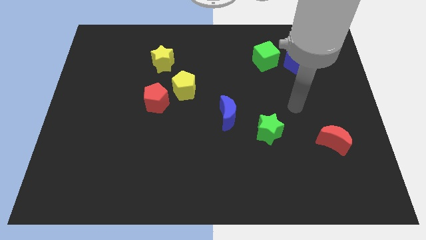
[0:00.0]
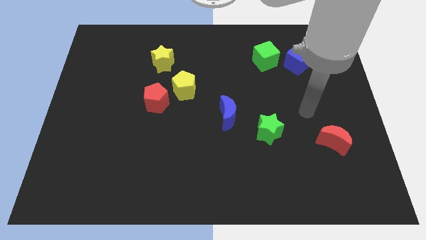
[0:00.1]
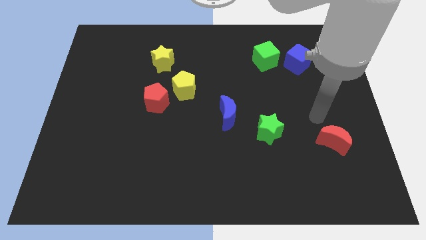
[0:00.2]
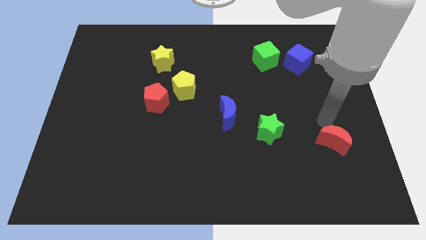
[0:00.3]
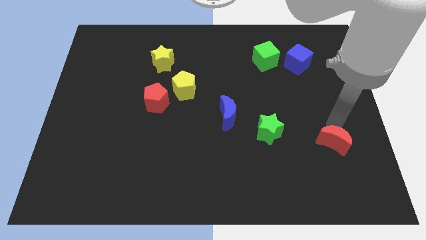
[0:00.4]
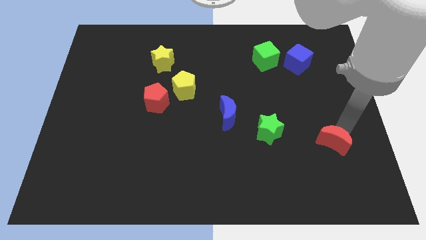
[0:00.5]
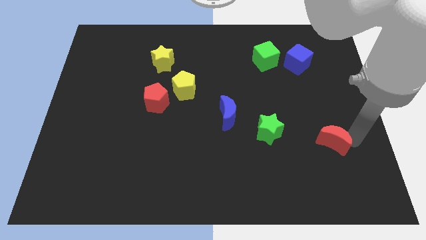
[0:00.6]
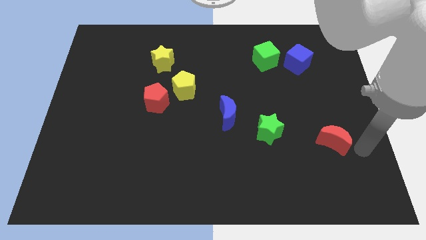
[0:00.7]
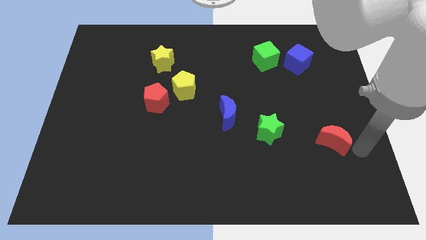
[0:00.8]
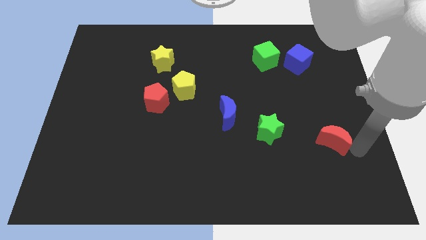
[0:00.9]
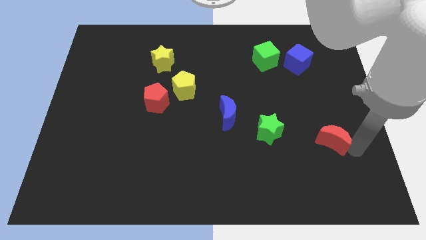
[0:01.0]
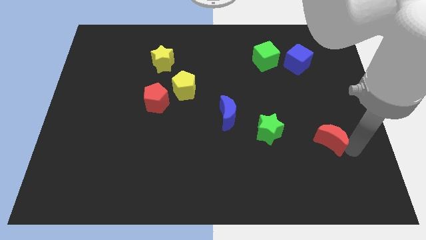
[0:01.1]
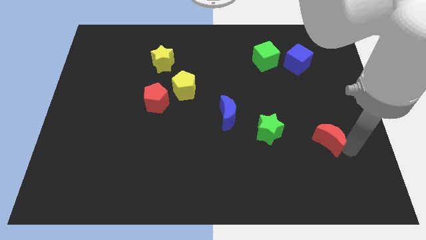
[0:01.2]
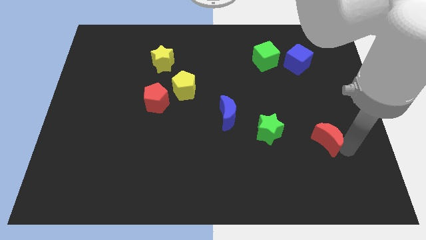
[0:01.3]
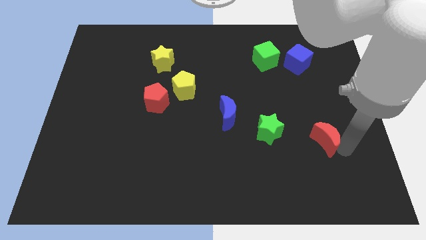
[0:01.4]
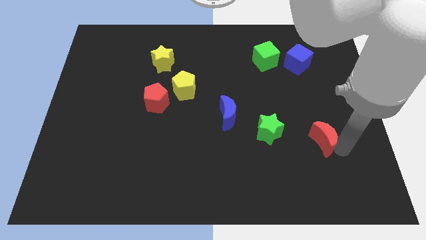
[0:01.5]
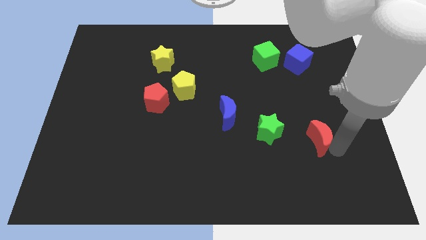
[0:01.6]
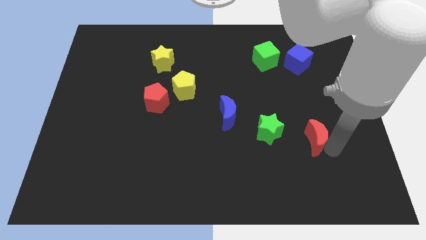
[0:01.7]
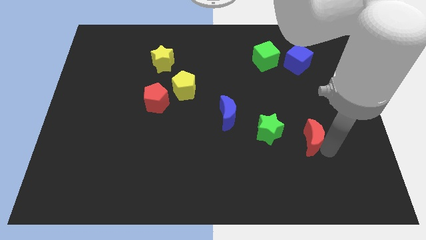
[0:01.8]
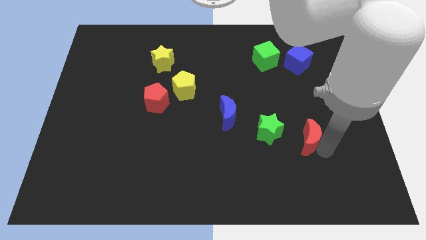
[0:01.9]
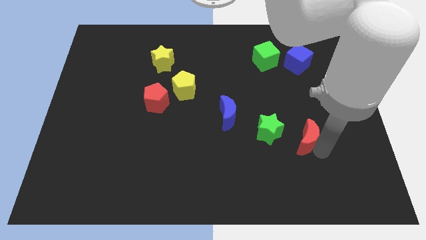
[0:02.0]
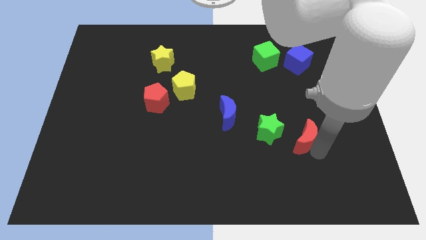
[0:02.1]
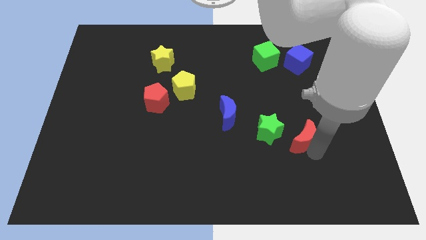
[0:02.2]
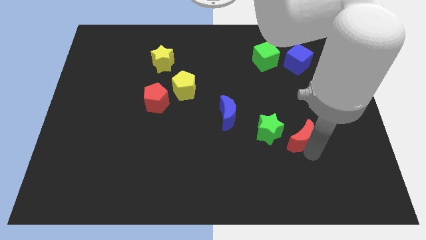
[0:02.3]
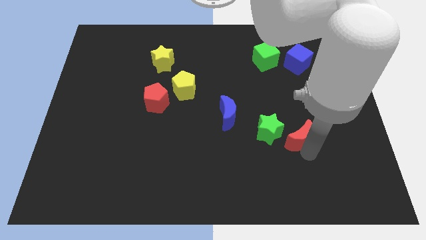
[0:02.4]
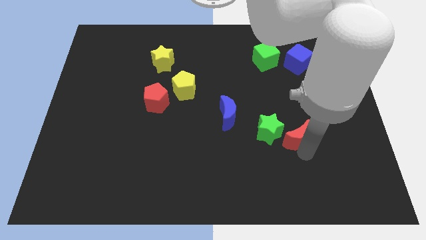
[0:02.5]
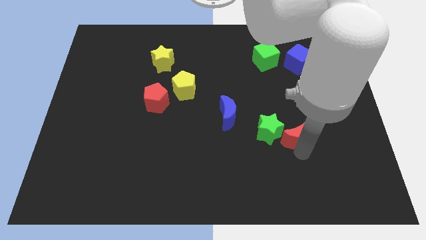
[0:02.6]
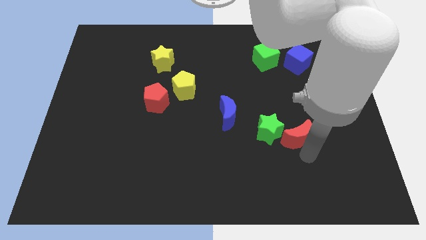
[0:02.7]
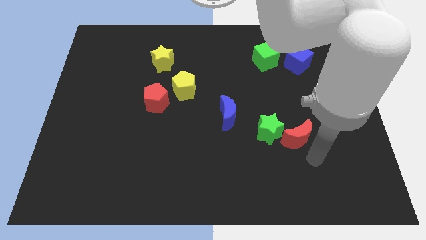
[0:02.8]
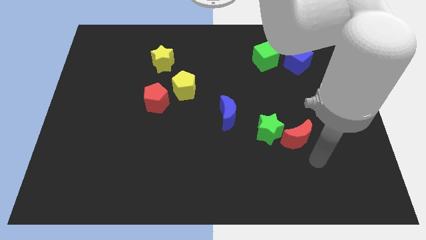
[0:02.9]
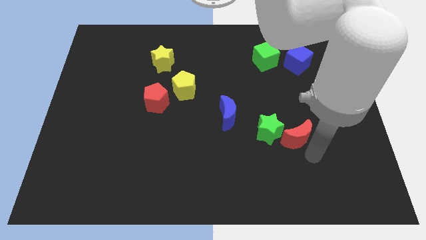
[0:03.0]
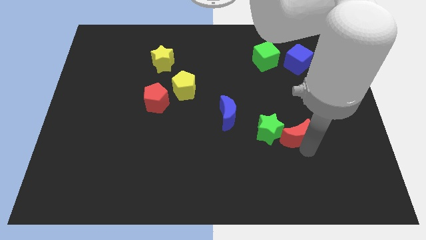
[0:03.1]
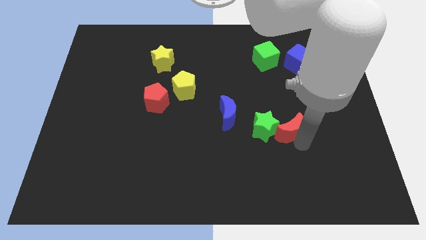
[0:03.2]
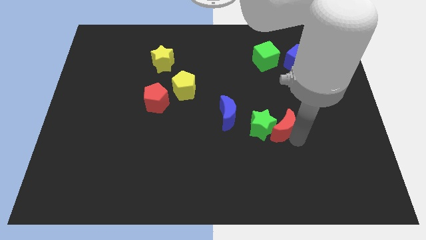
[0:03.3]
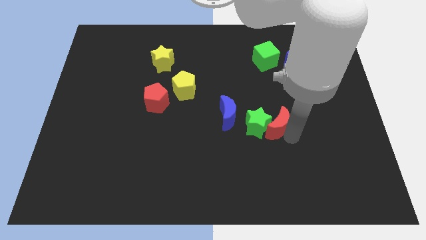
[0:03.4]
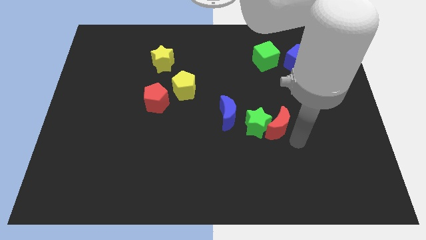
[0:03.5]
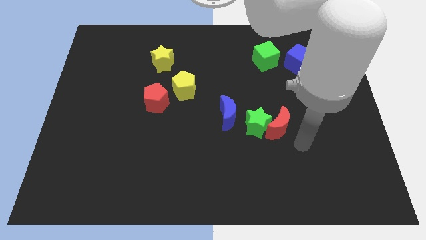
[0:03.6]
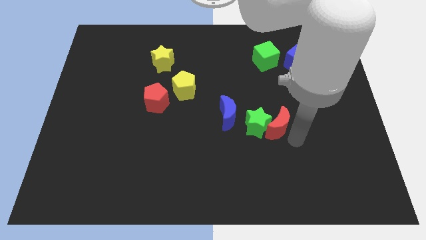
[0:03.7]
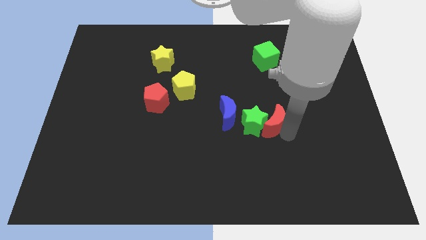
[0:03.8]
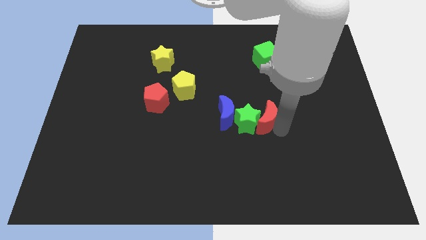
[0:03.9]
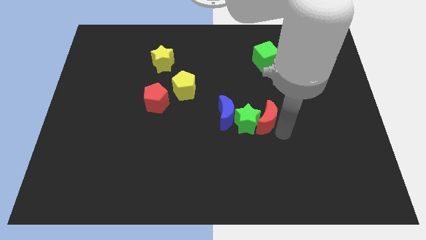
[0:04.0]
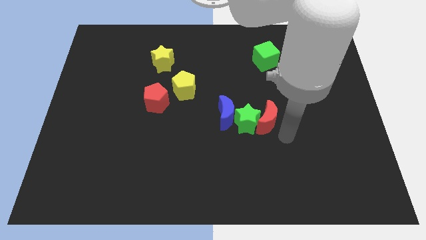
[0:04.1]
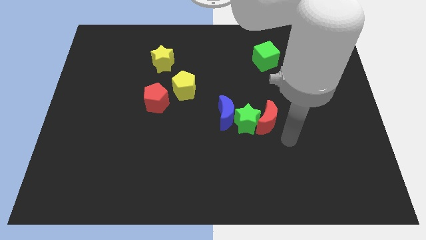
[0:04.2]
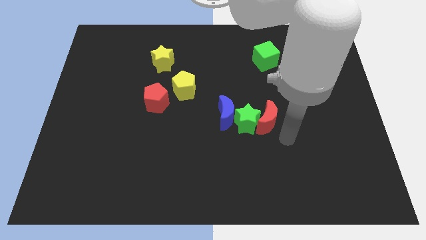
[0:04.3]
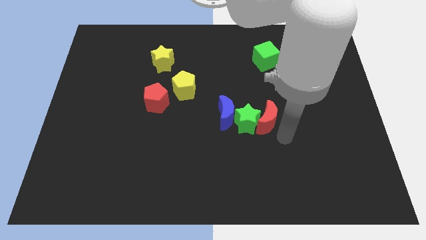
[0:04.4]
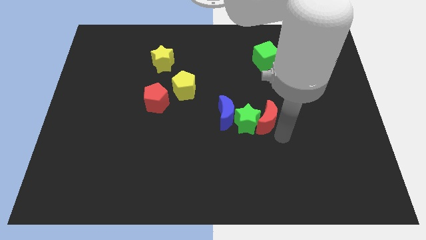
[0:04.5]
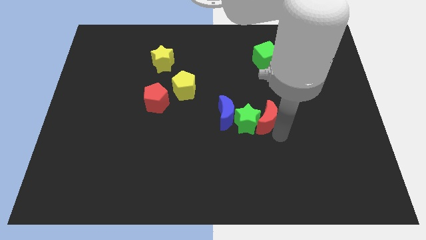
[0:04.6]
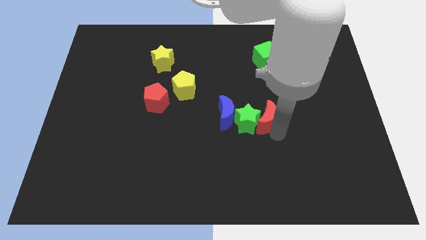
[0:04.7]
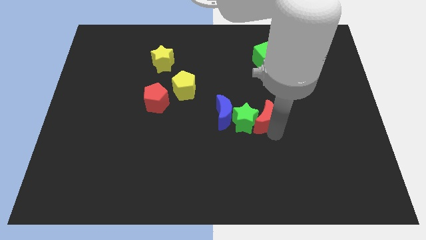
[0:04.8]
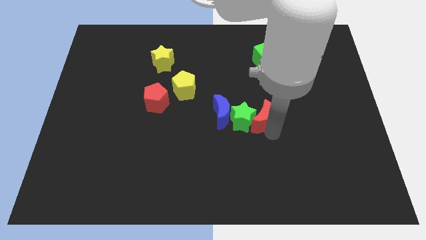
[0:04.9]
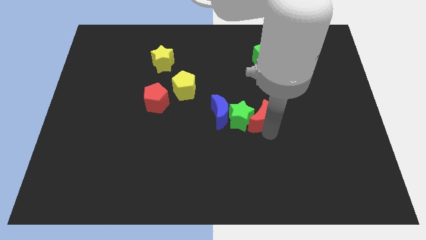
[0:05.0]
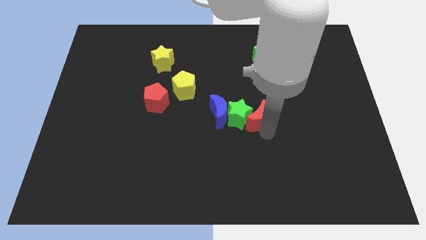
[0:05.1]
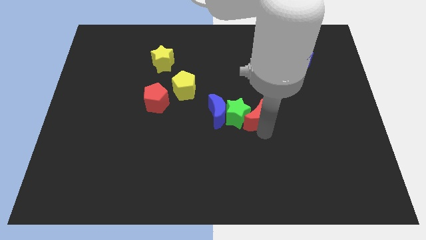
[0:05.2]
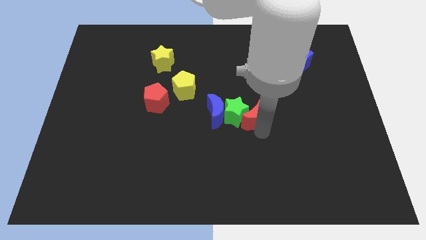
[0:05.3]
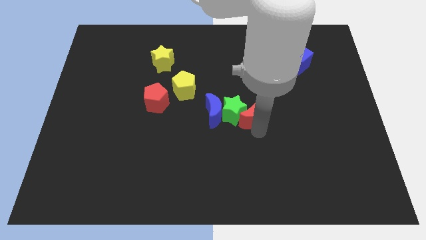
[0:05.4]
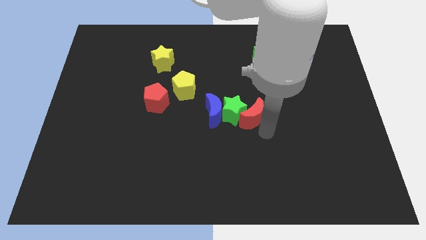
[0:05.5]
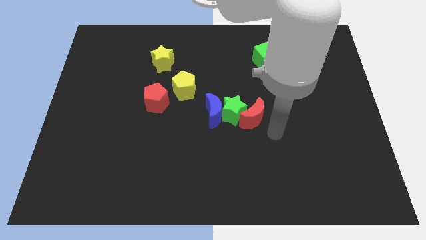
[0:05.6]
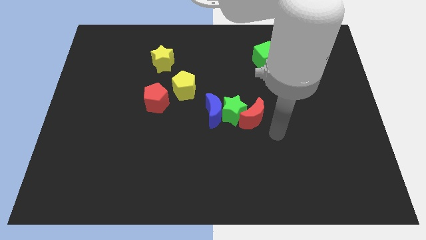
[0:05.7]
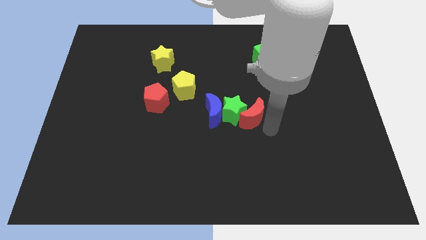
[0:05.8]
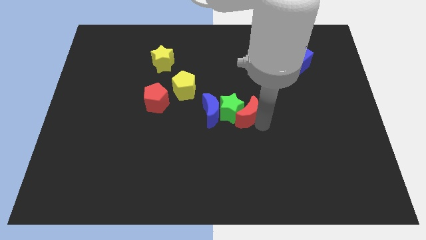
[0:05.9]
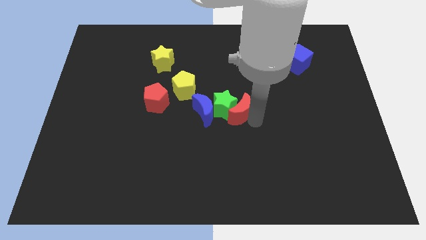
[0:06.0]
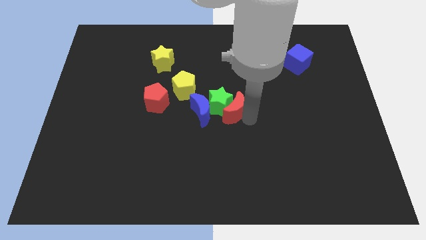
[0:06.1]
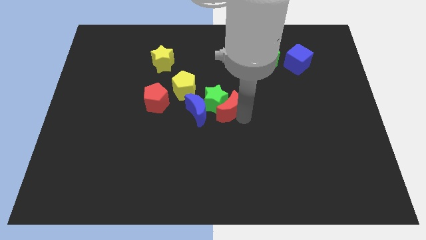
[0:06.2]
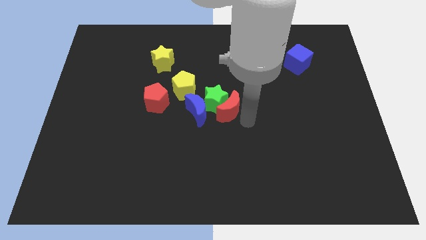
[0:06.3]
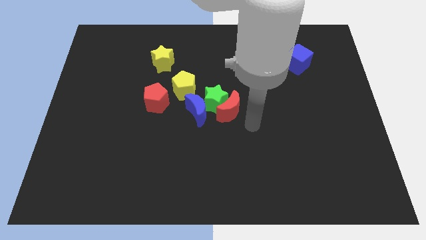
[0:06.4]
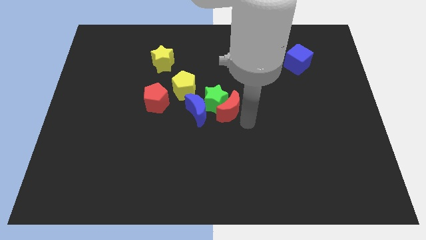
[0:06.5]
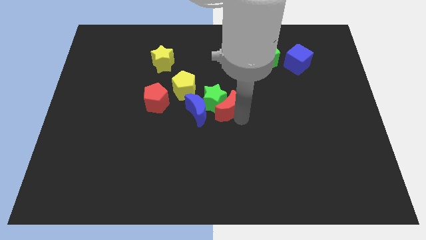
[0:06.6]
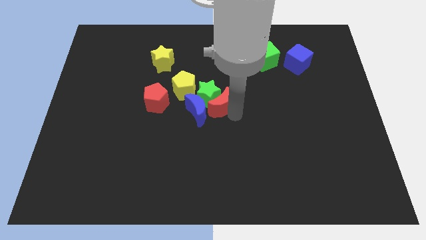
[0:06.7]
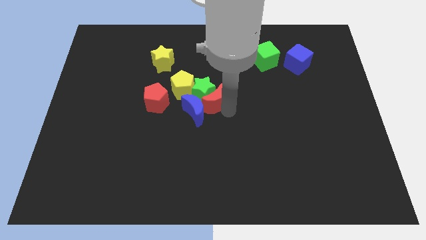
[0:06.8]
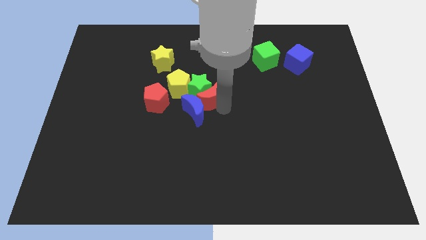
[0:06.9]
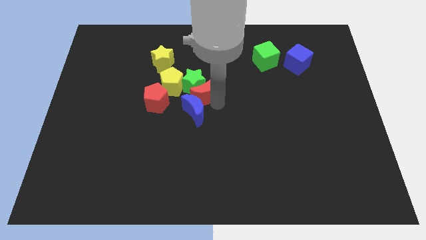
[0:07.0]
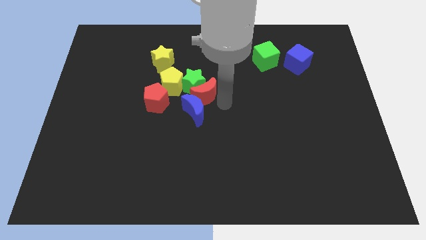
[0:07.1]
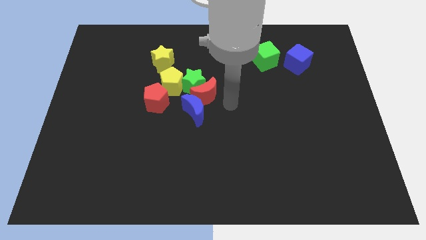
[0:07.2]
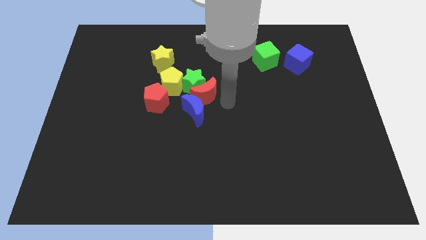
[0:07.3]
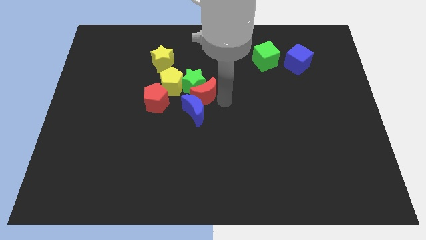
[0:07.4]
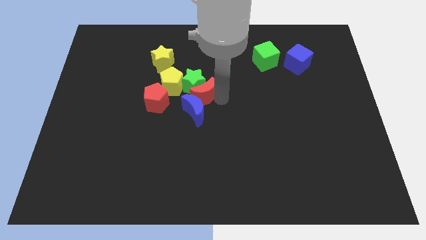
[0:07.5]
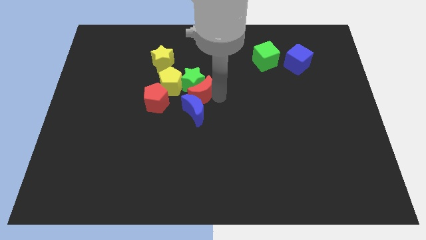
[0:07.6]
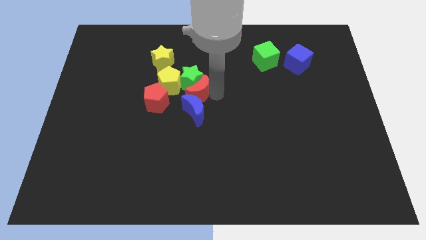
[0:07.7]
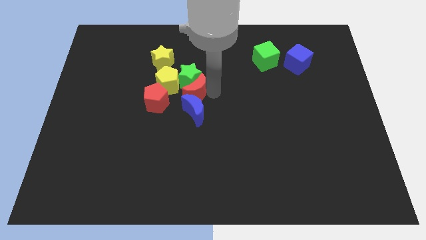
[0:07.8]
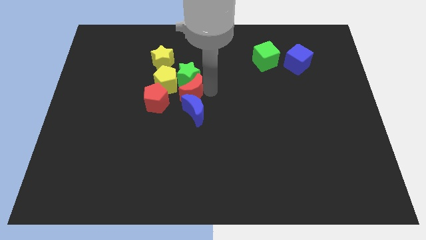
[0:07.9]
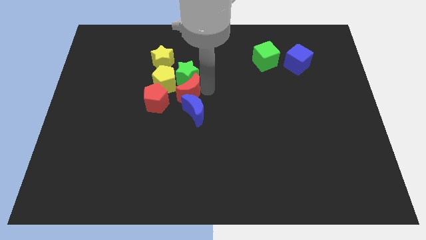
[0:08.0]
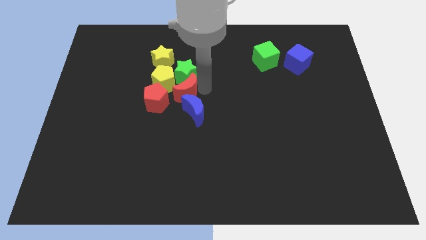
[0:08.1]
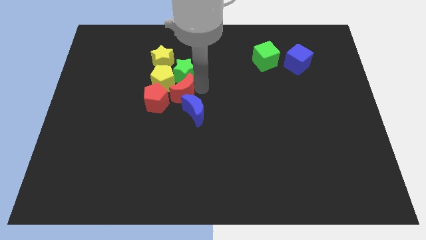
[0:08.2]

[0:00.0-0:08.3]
put the red moon to the yellow pentagon
